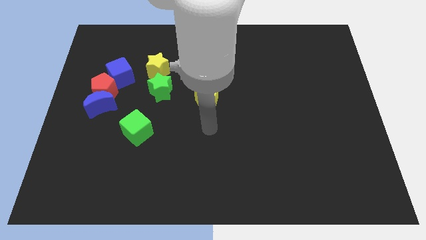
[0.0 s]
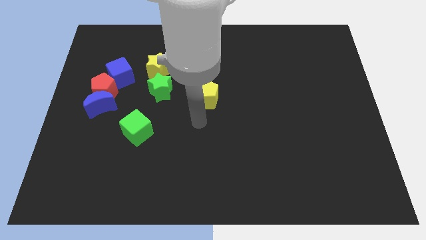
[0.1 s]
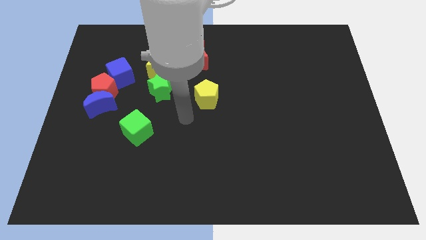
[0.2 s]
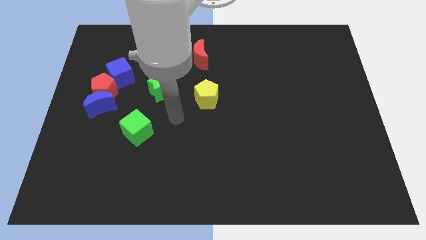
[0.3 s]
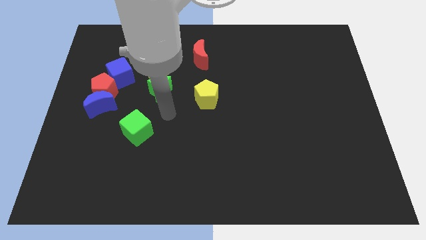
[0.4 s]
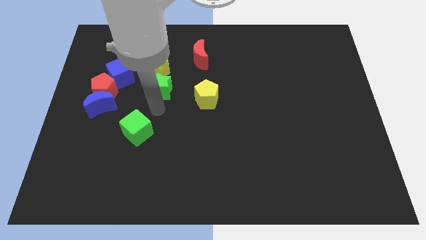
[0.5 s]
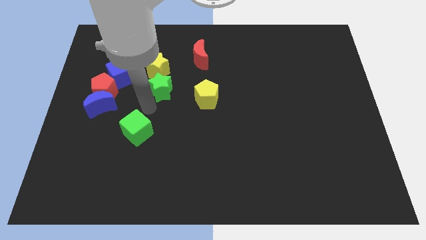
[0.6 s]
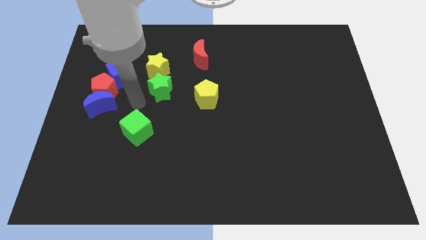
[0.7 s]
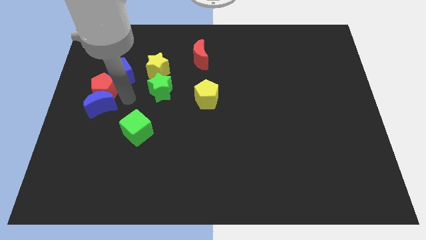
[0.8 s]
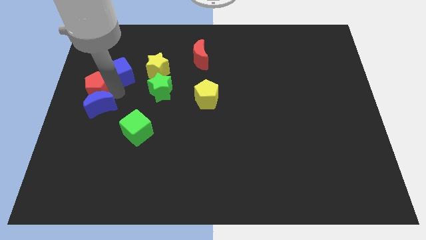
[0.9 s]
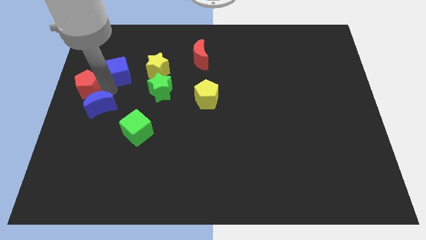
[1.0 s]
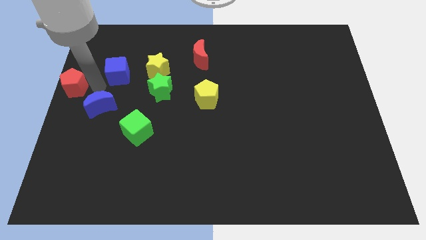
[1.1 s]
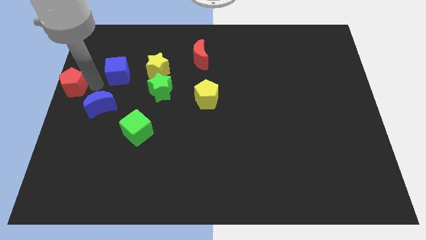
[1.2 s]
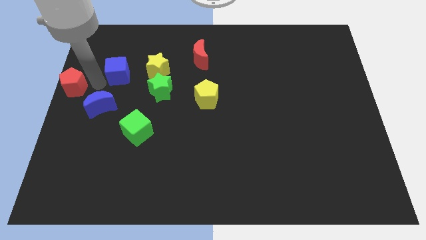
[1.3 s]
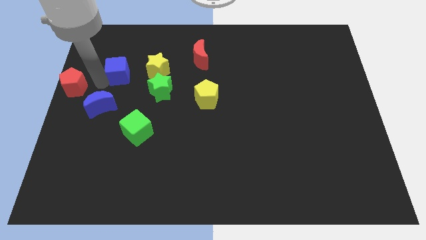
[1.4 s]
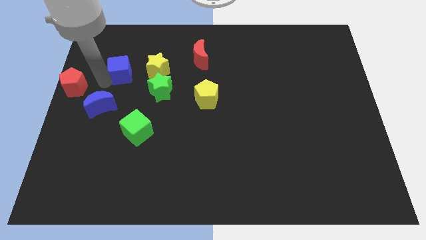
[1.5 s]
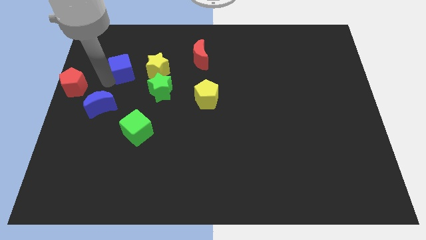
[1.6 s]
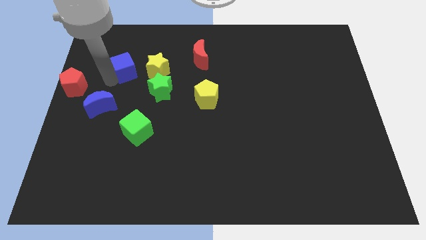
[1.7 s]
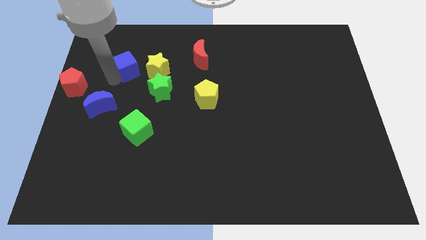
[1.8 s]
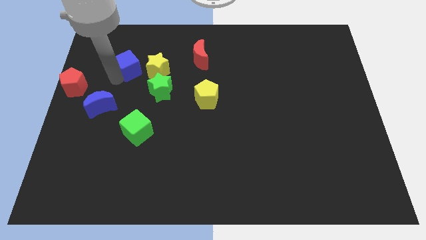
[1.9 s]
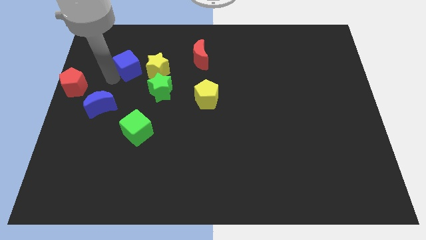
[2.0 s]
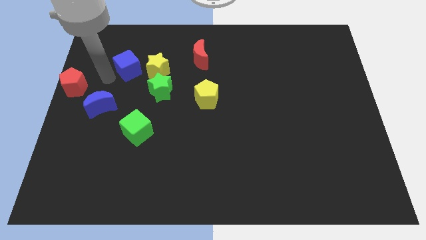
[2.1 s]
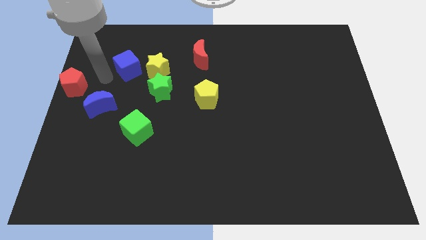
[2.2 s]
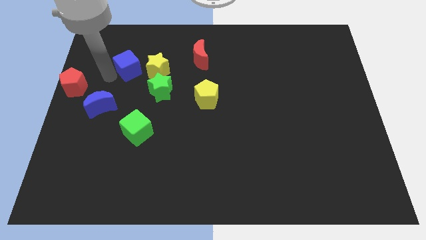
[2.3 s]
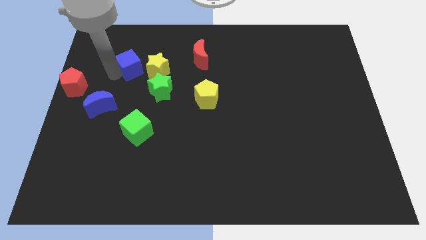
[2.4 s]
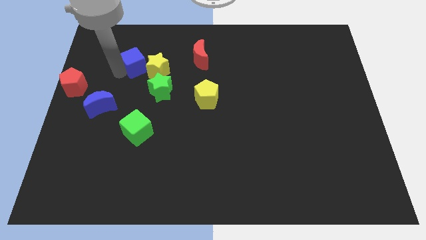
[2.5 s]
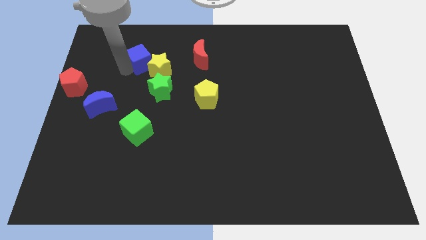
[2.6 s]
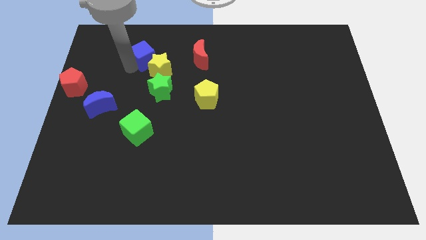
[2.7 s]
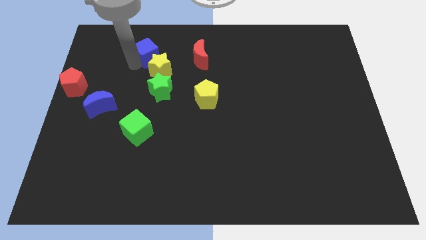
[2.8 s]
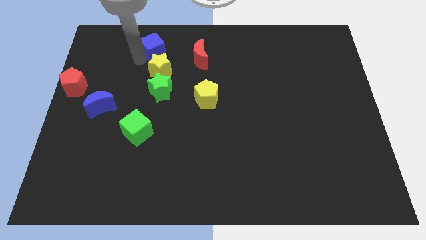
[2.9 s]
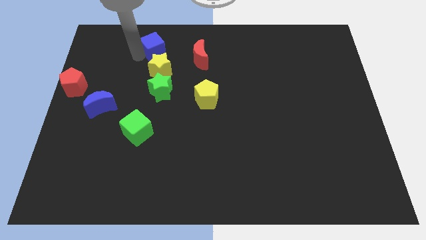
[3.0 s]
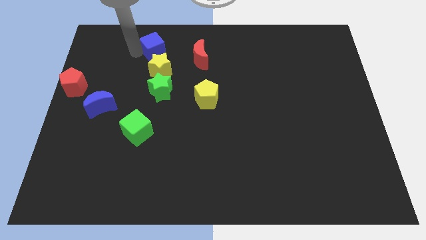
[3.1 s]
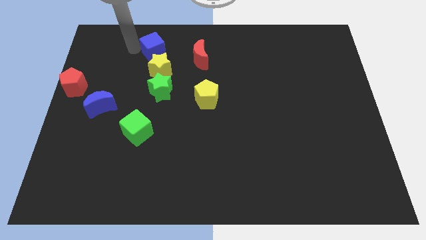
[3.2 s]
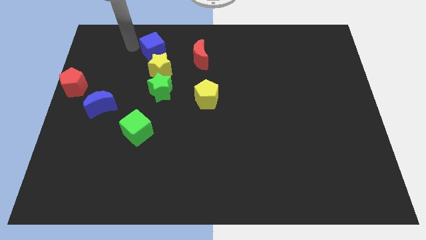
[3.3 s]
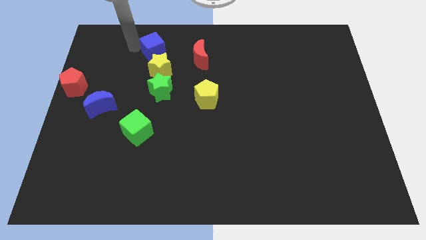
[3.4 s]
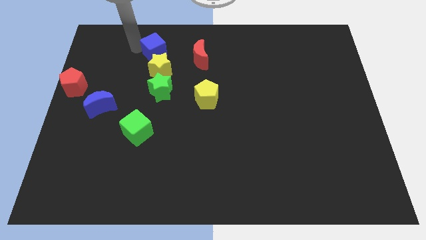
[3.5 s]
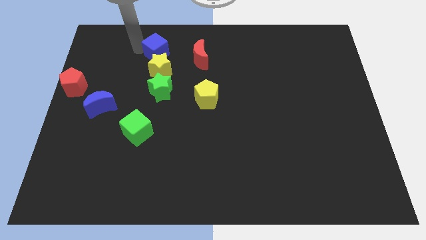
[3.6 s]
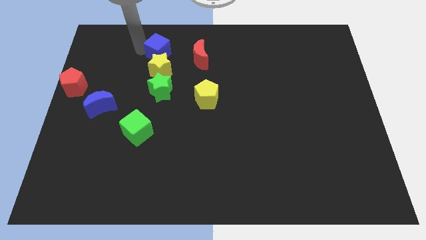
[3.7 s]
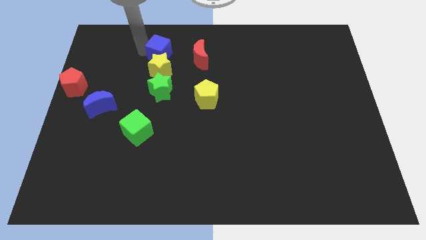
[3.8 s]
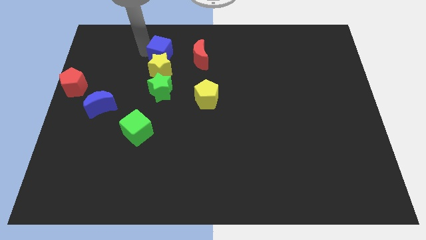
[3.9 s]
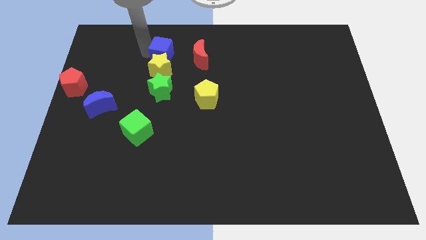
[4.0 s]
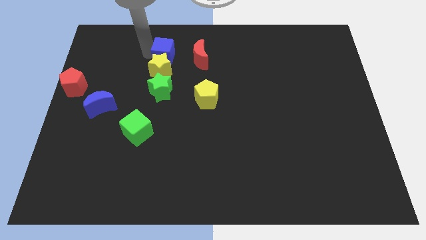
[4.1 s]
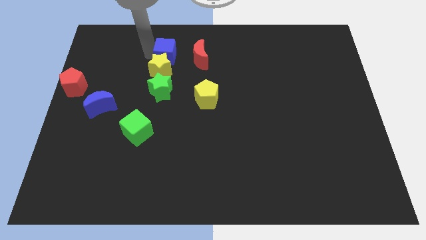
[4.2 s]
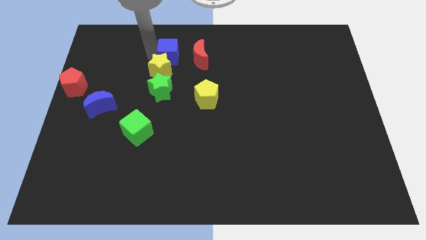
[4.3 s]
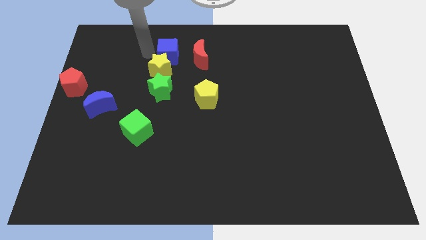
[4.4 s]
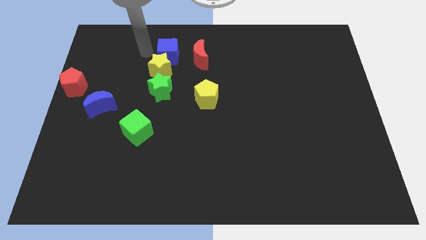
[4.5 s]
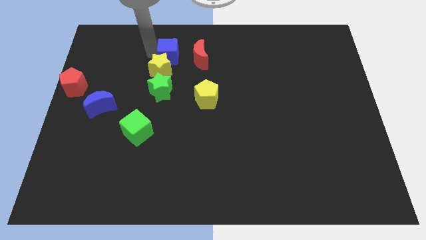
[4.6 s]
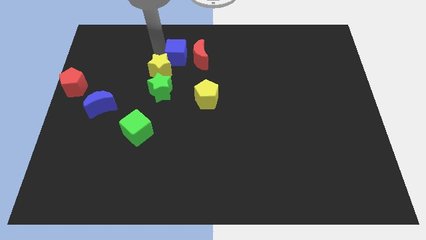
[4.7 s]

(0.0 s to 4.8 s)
put the blue cube to the red moon

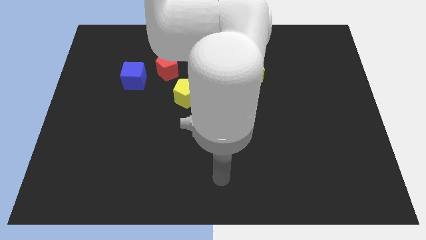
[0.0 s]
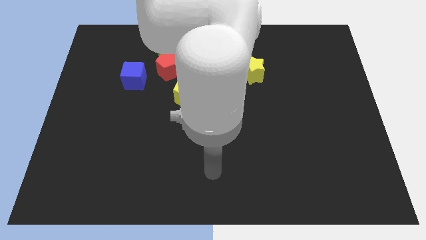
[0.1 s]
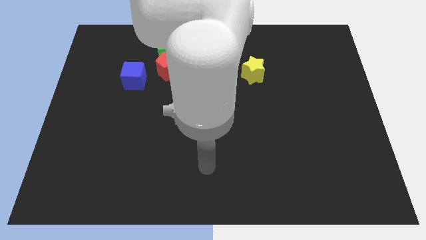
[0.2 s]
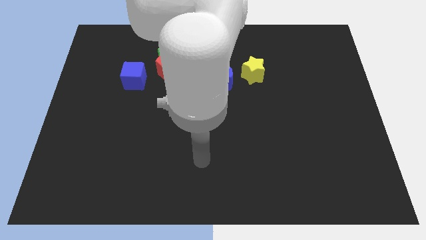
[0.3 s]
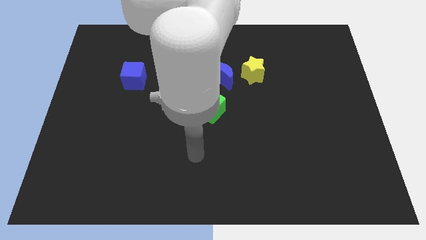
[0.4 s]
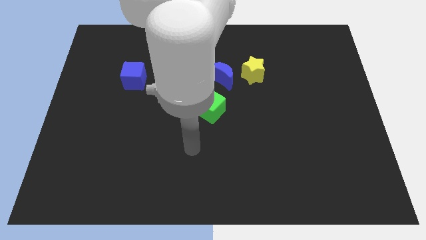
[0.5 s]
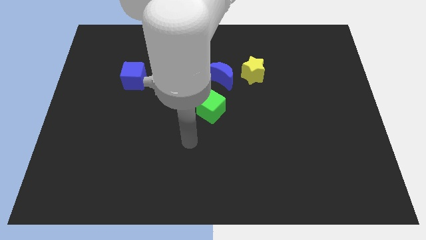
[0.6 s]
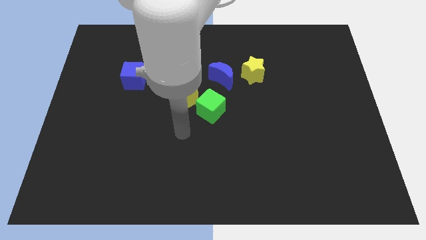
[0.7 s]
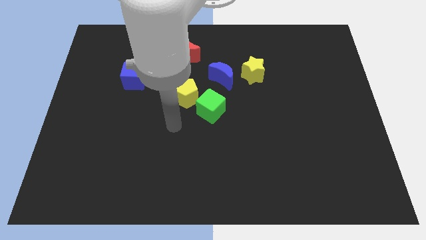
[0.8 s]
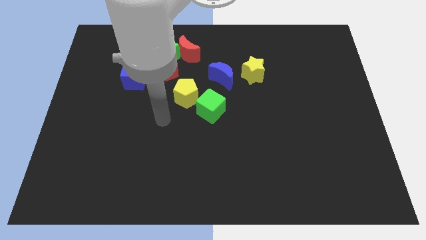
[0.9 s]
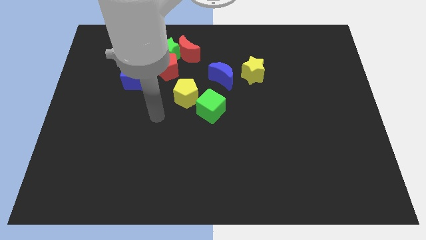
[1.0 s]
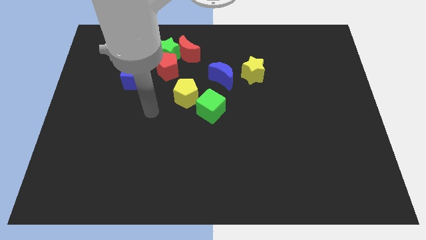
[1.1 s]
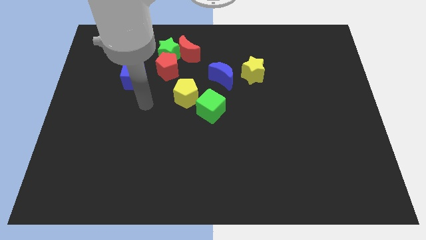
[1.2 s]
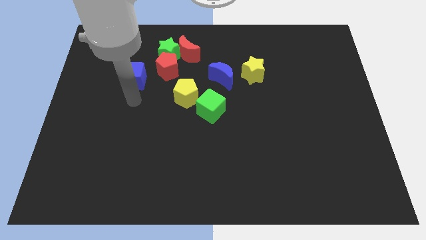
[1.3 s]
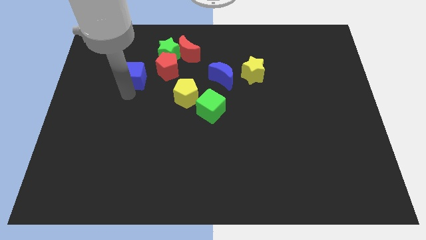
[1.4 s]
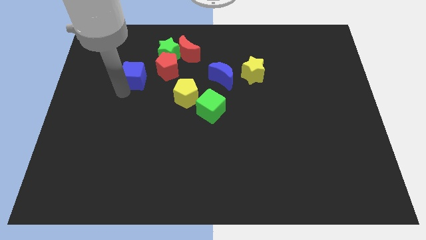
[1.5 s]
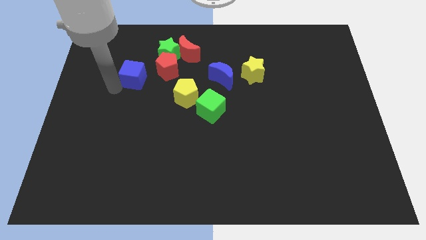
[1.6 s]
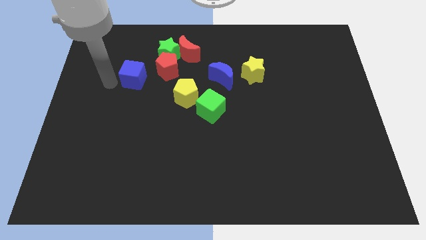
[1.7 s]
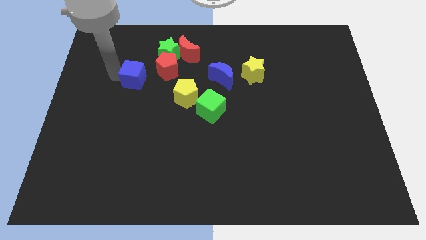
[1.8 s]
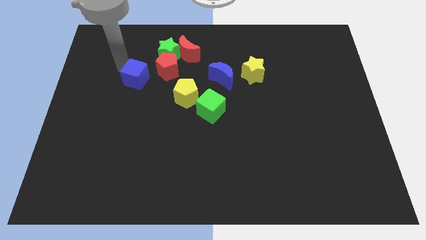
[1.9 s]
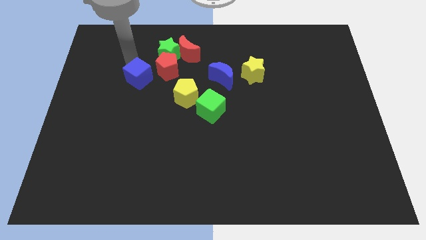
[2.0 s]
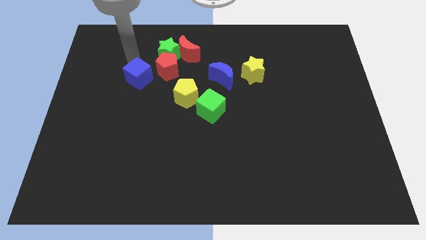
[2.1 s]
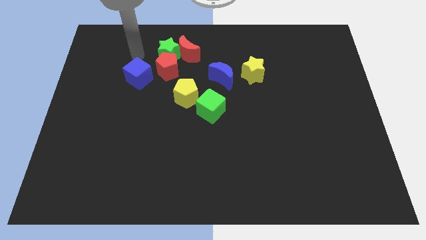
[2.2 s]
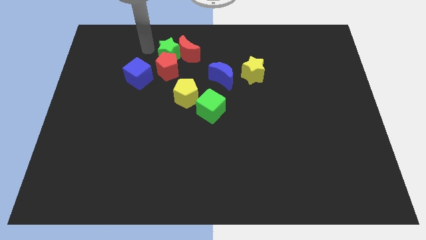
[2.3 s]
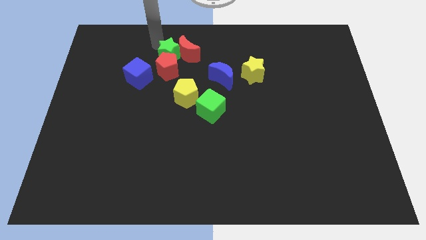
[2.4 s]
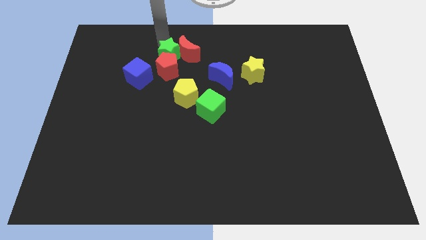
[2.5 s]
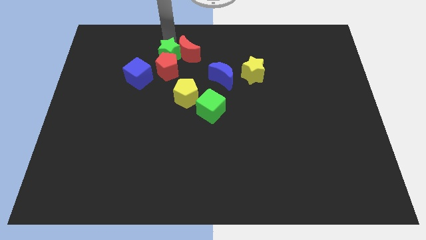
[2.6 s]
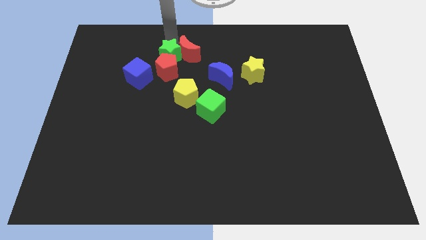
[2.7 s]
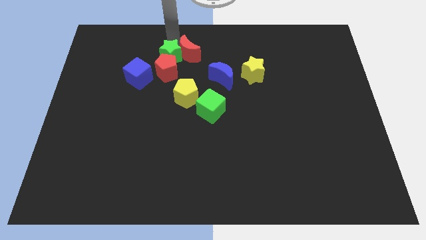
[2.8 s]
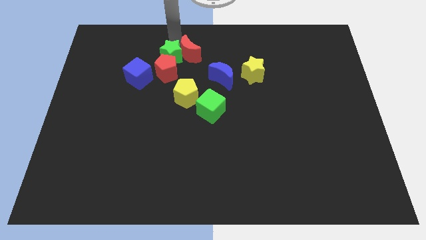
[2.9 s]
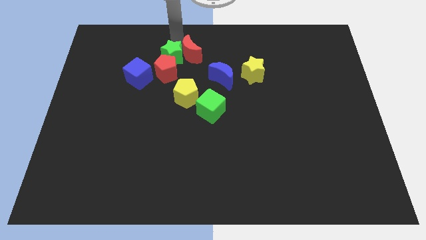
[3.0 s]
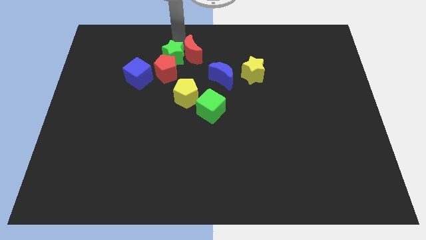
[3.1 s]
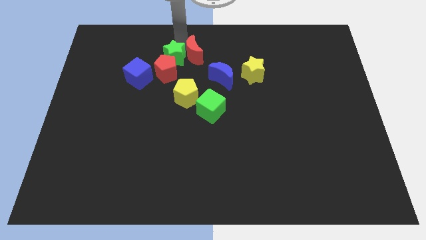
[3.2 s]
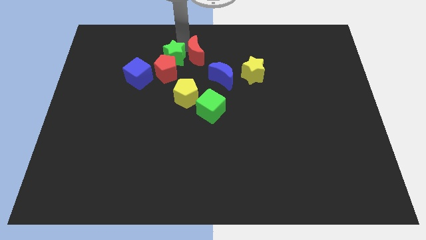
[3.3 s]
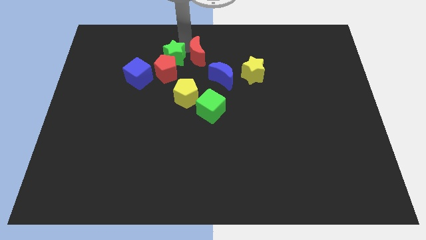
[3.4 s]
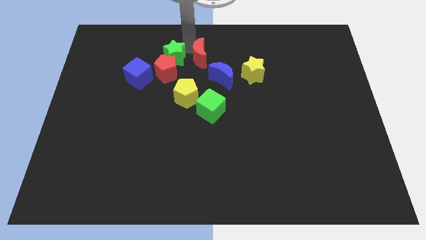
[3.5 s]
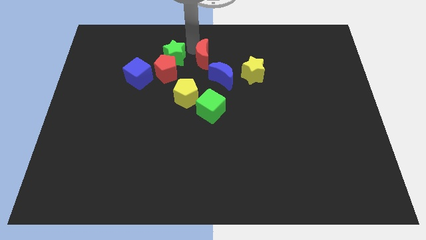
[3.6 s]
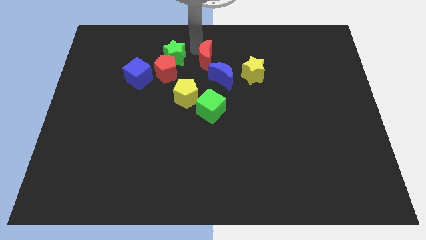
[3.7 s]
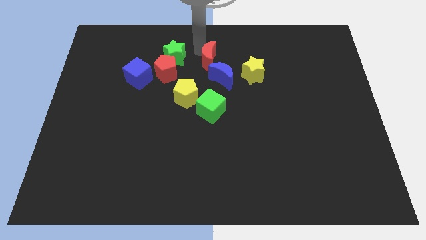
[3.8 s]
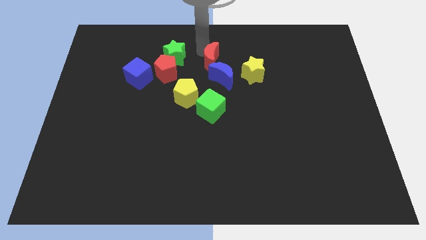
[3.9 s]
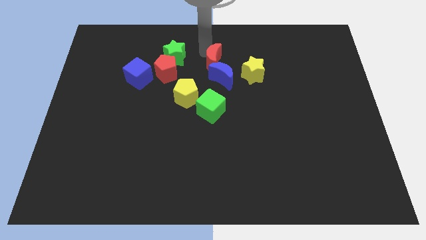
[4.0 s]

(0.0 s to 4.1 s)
put the red moon close to the blue moon
